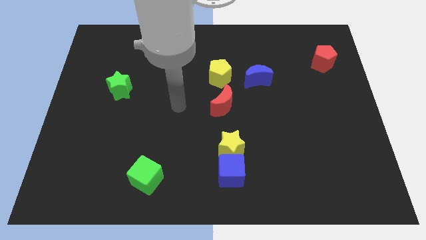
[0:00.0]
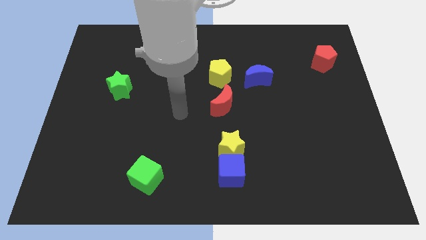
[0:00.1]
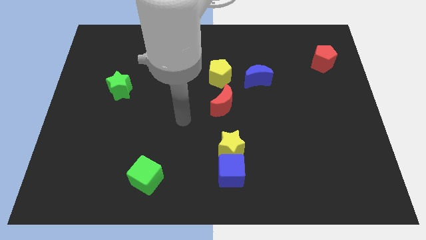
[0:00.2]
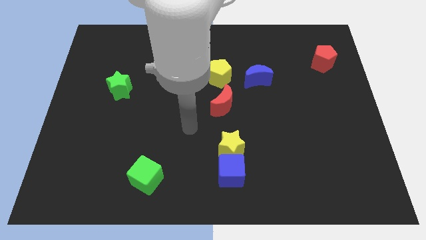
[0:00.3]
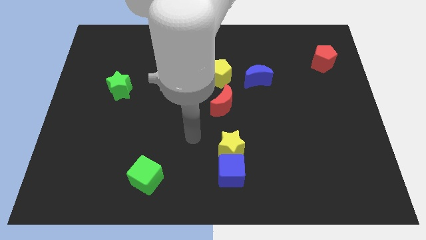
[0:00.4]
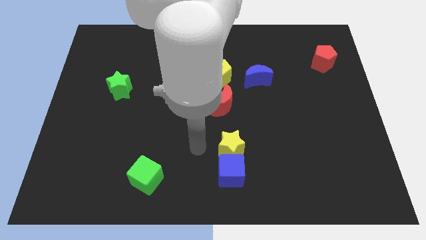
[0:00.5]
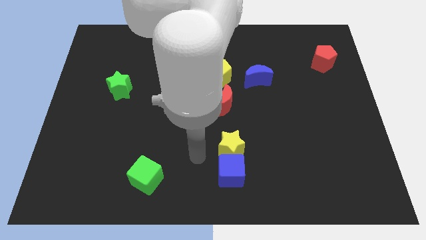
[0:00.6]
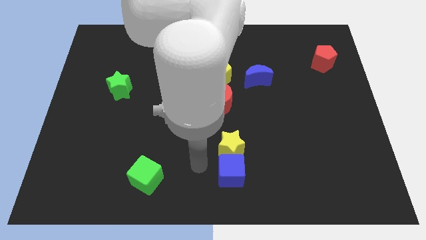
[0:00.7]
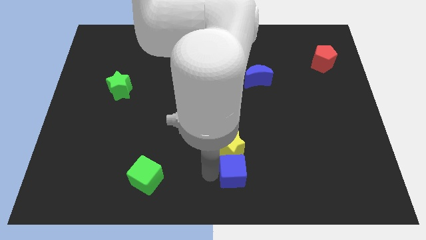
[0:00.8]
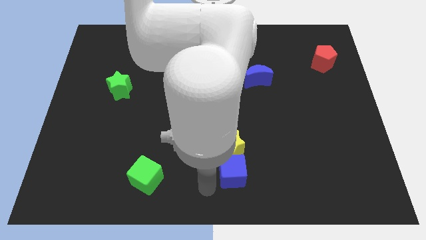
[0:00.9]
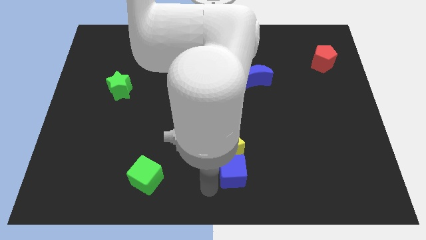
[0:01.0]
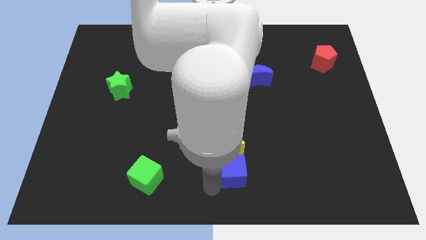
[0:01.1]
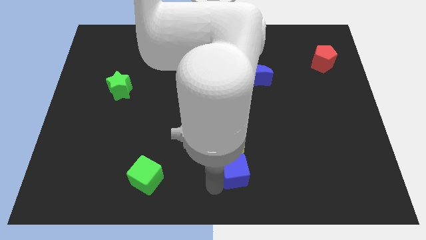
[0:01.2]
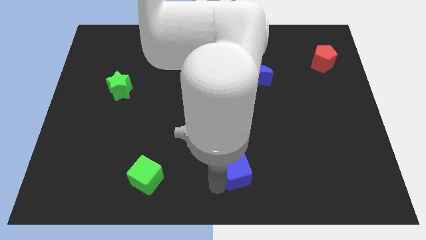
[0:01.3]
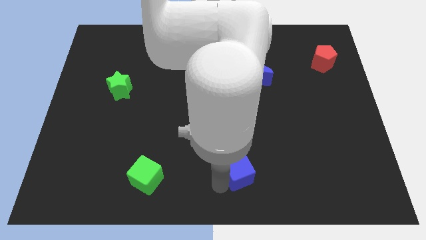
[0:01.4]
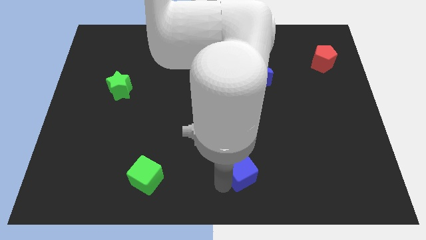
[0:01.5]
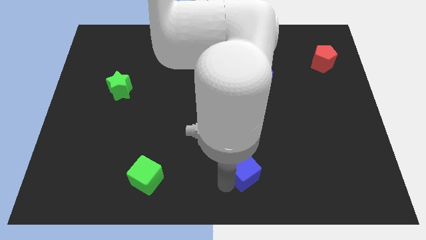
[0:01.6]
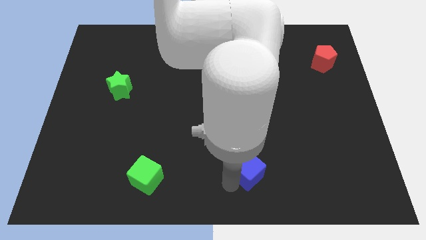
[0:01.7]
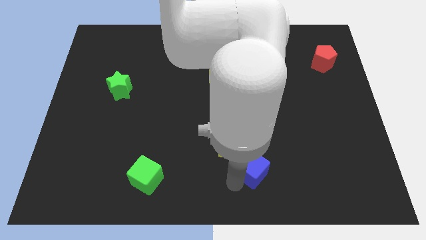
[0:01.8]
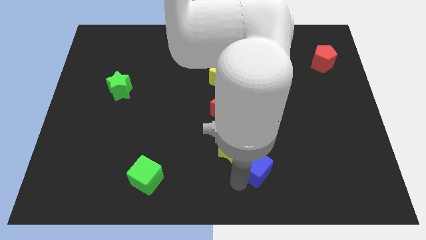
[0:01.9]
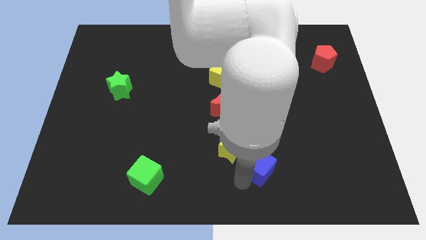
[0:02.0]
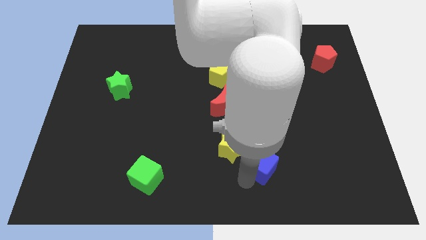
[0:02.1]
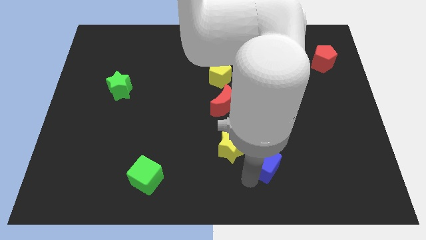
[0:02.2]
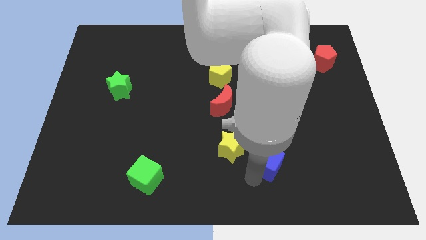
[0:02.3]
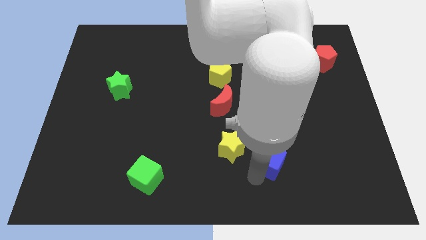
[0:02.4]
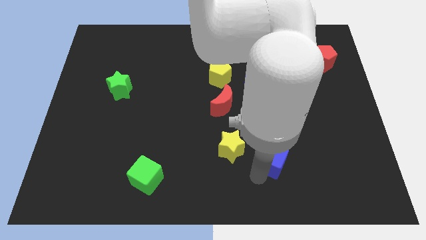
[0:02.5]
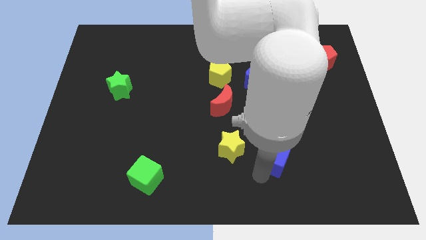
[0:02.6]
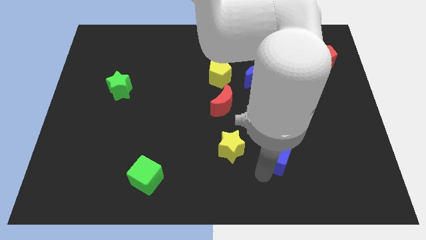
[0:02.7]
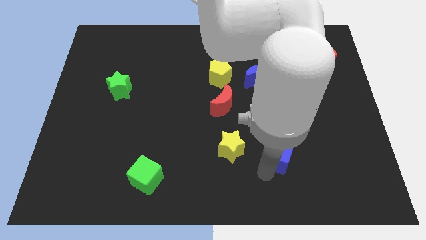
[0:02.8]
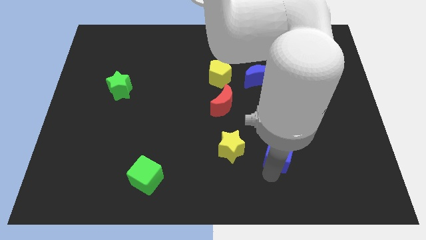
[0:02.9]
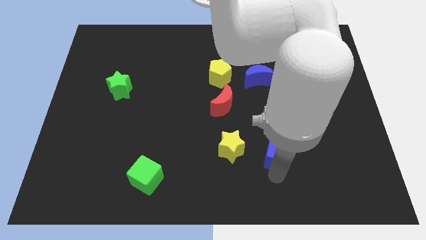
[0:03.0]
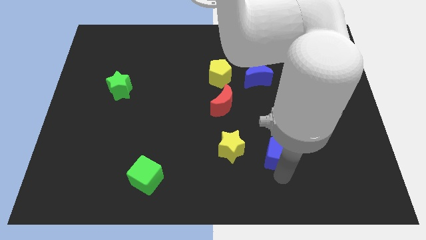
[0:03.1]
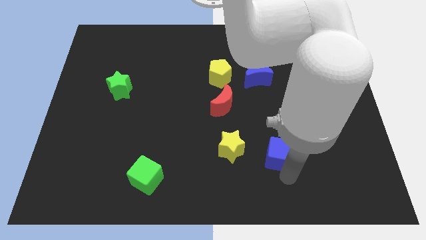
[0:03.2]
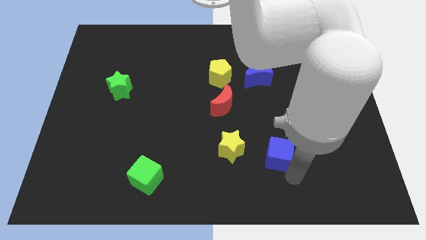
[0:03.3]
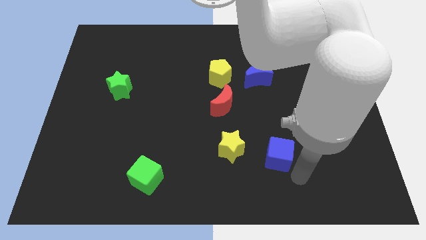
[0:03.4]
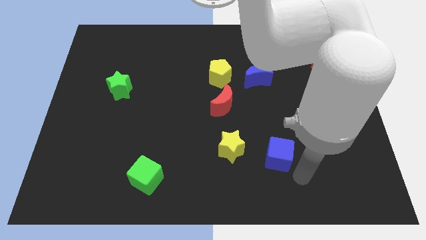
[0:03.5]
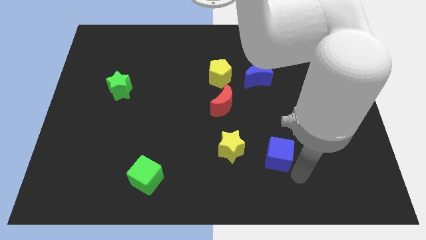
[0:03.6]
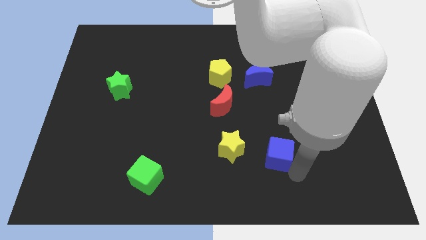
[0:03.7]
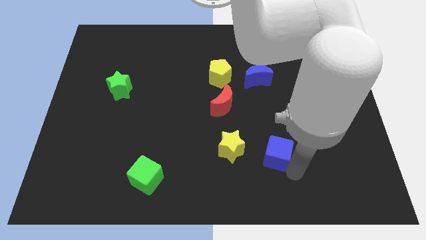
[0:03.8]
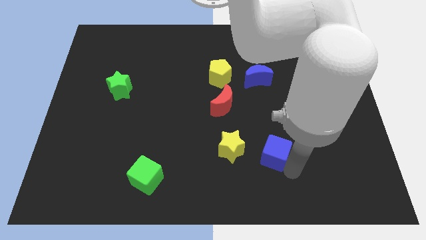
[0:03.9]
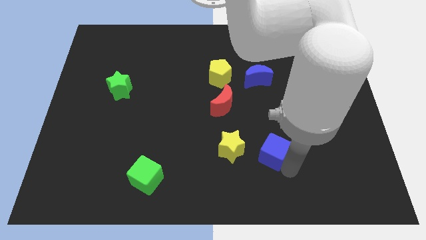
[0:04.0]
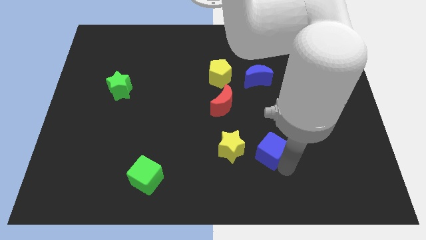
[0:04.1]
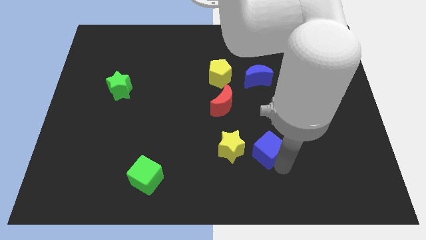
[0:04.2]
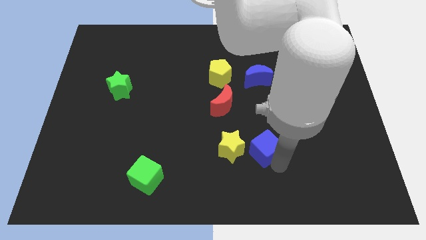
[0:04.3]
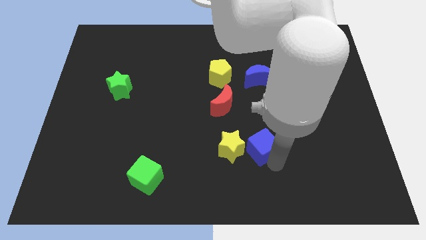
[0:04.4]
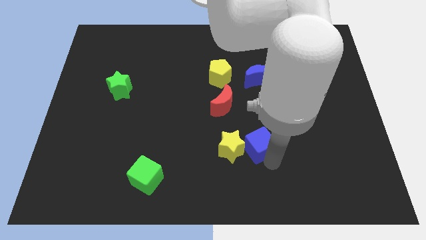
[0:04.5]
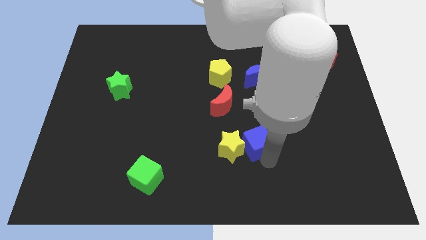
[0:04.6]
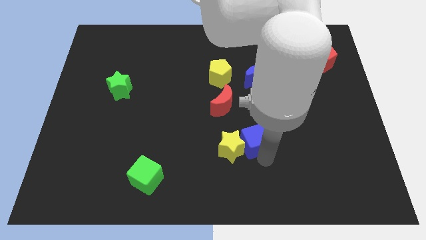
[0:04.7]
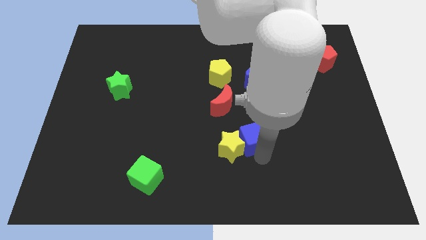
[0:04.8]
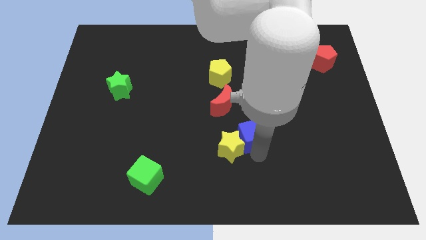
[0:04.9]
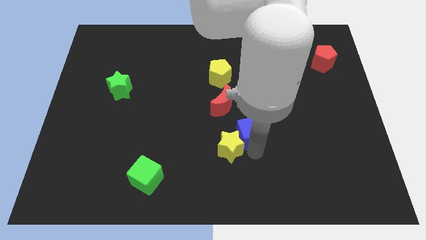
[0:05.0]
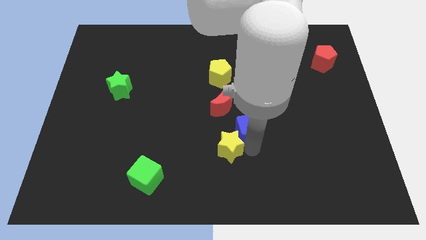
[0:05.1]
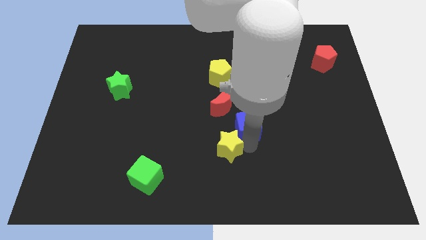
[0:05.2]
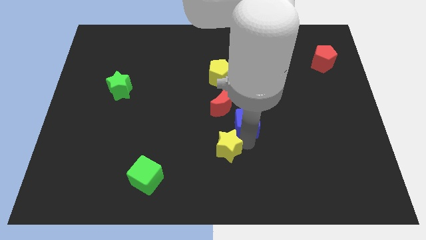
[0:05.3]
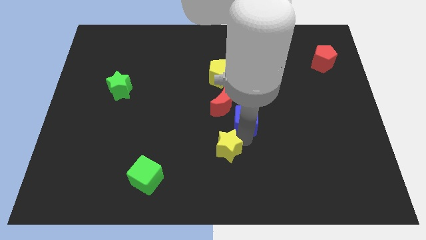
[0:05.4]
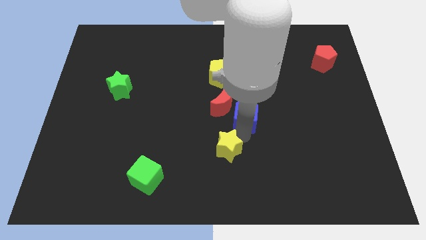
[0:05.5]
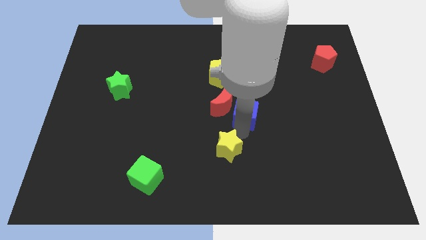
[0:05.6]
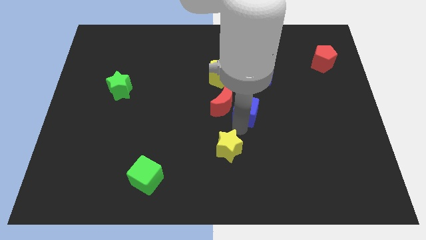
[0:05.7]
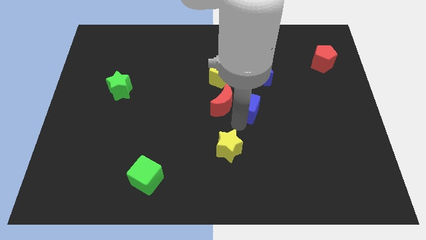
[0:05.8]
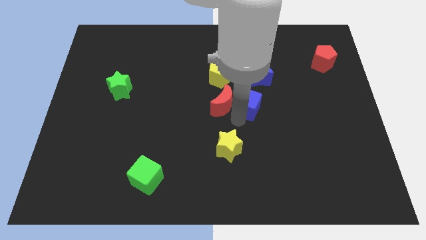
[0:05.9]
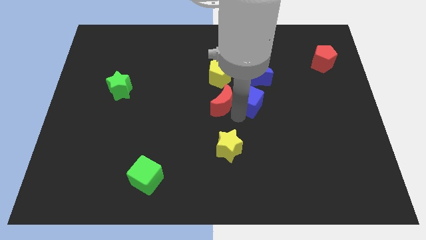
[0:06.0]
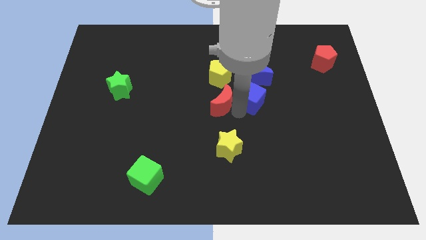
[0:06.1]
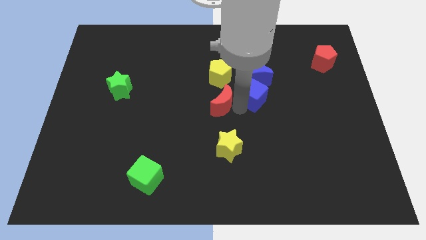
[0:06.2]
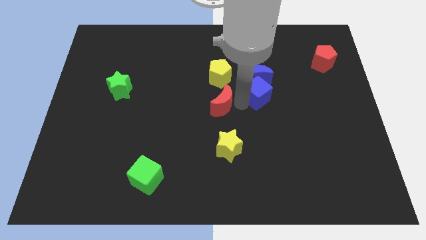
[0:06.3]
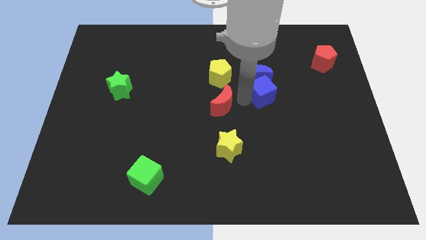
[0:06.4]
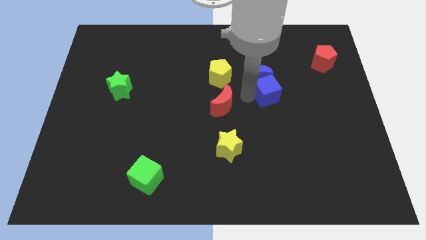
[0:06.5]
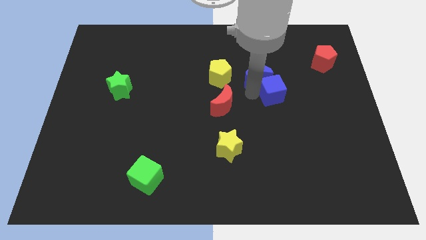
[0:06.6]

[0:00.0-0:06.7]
slide the blue cube upwards and right diagonally

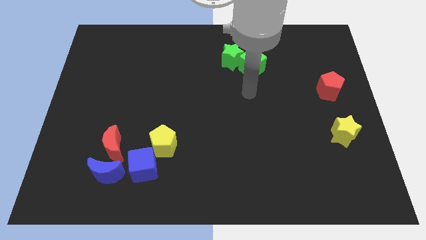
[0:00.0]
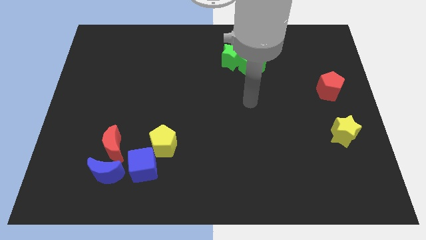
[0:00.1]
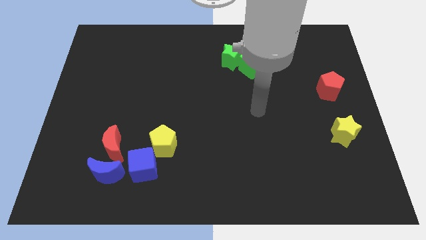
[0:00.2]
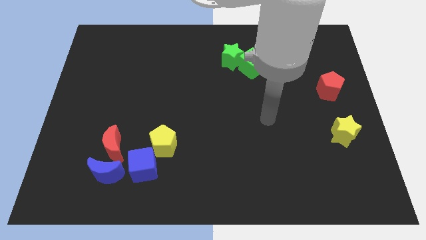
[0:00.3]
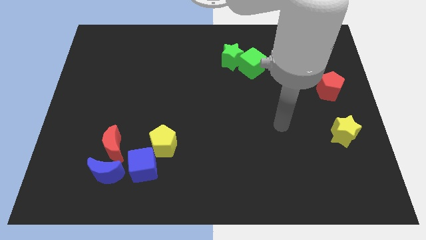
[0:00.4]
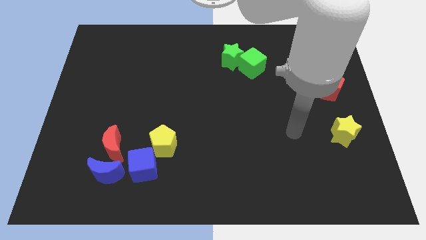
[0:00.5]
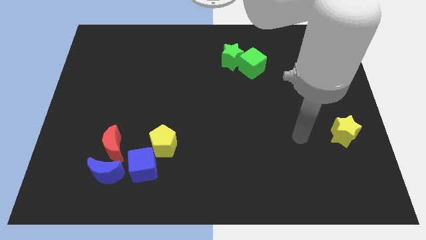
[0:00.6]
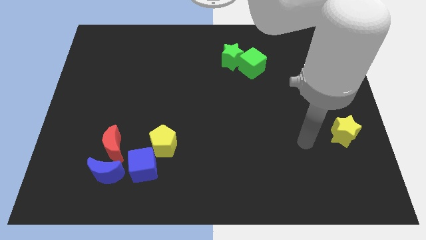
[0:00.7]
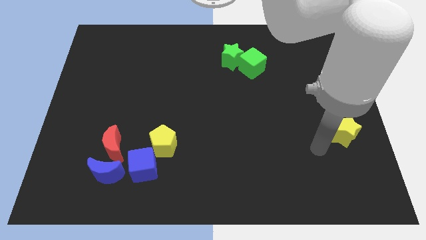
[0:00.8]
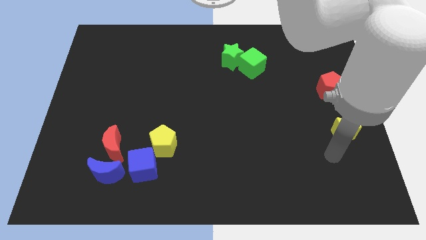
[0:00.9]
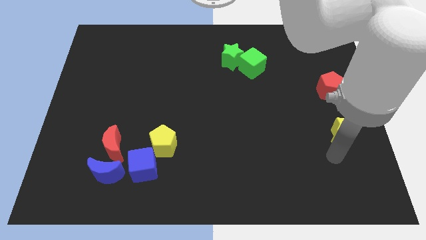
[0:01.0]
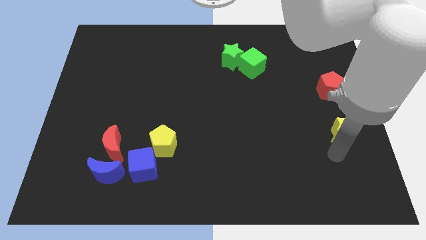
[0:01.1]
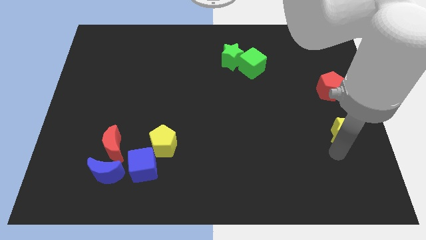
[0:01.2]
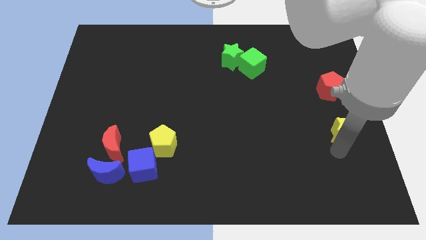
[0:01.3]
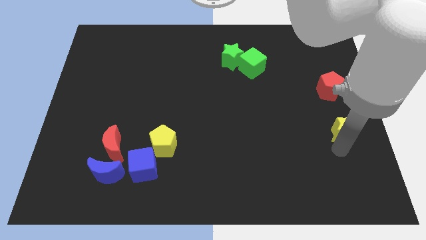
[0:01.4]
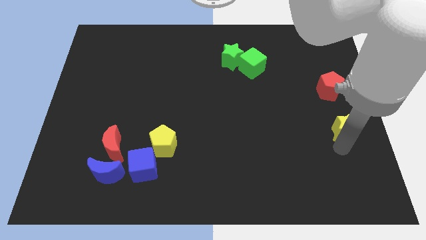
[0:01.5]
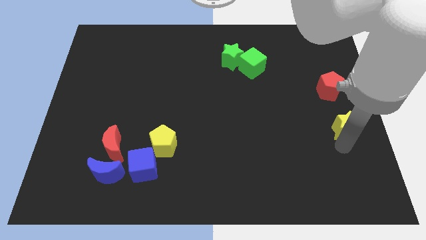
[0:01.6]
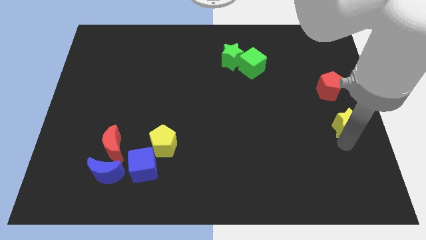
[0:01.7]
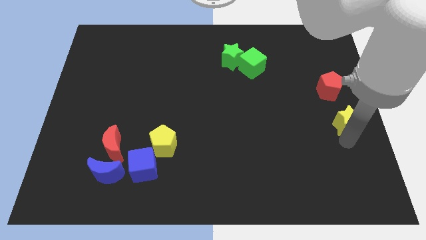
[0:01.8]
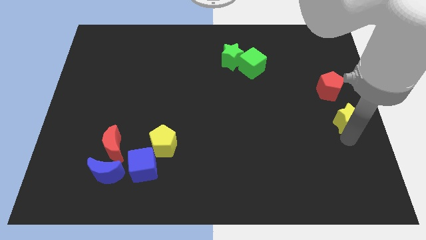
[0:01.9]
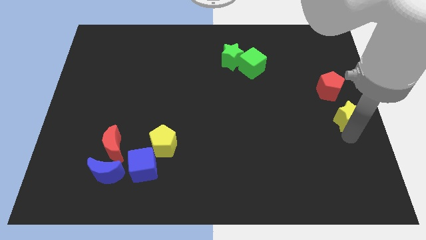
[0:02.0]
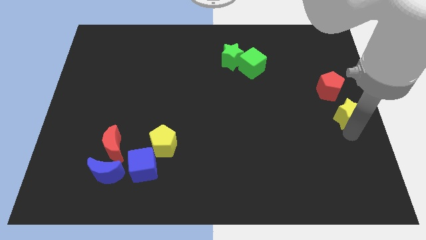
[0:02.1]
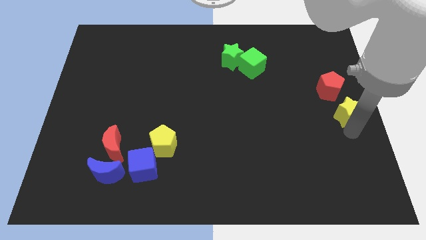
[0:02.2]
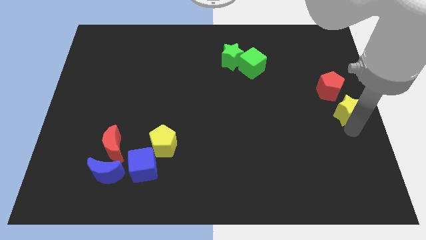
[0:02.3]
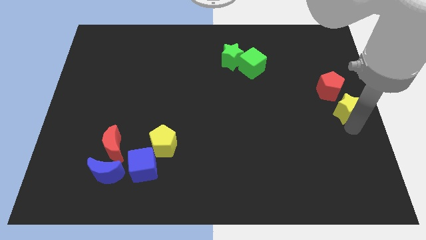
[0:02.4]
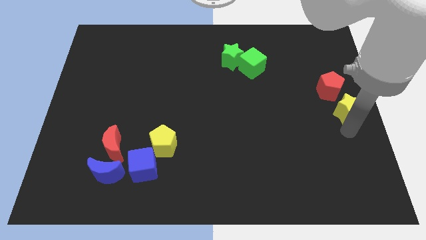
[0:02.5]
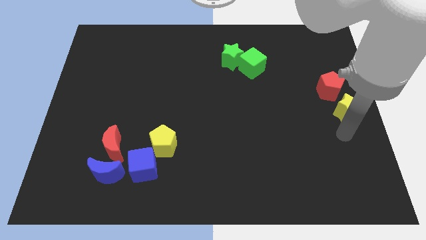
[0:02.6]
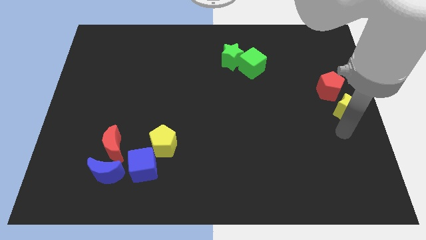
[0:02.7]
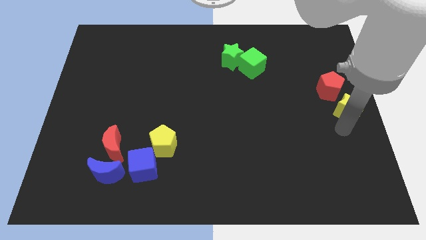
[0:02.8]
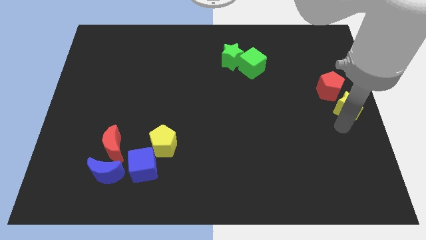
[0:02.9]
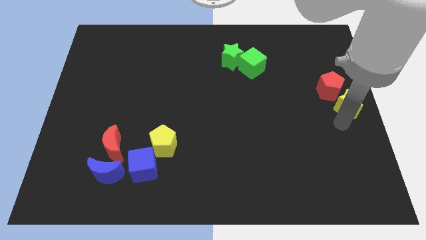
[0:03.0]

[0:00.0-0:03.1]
slightly move the yellow star upwards
